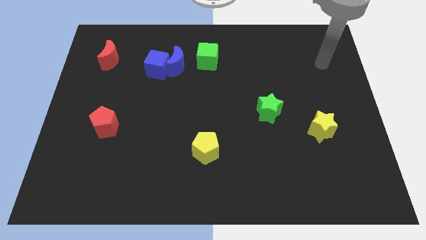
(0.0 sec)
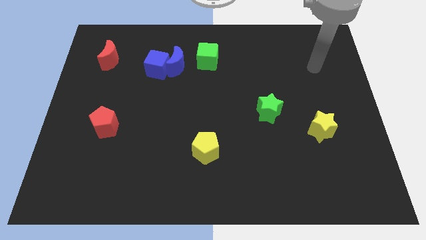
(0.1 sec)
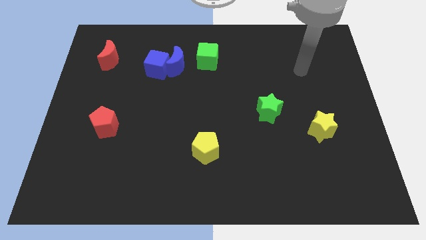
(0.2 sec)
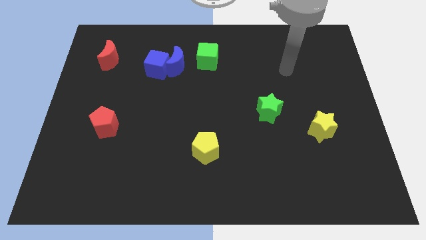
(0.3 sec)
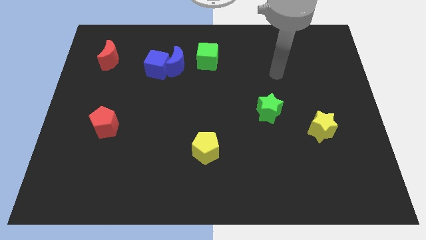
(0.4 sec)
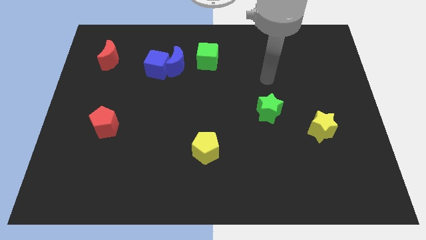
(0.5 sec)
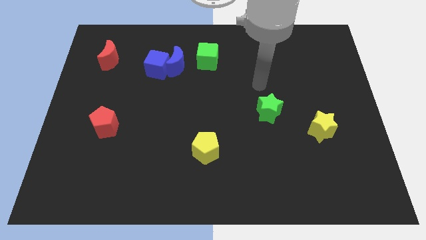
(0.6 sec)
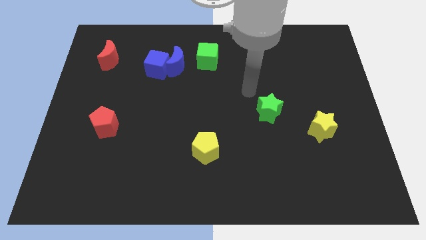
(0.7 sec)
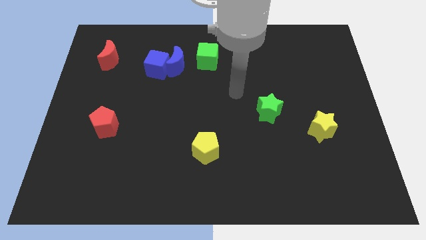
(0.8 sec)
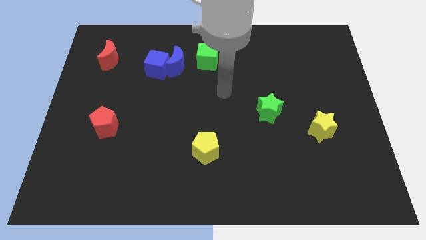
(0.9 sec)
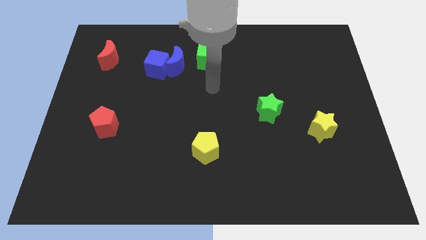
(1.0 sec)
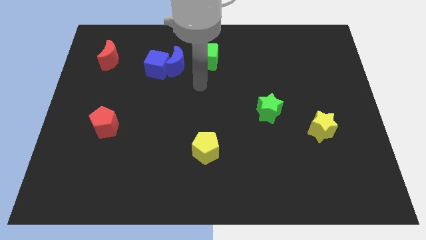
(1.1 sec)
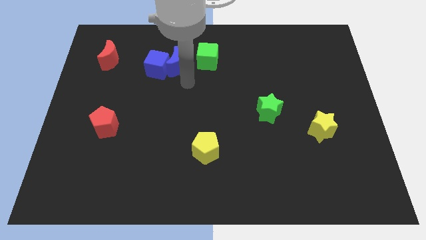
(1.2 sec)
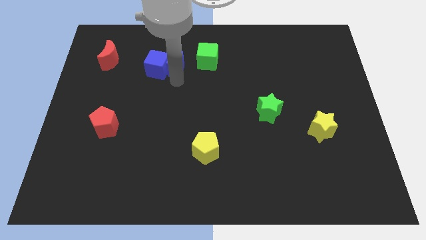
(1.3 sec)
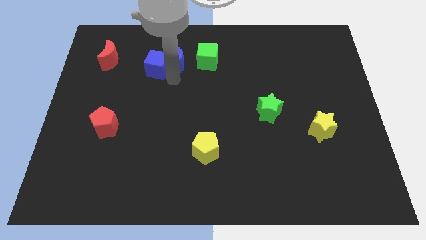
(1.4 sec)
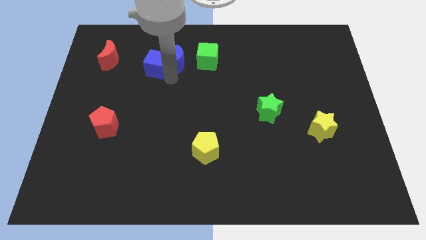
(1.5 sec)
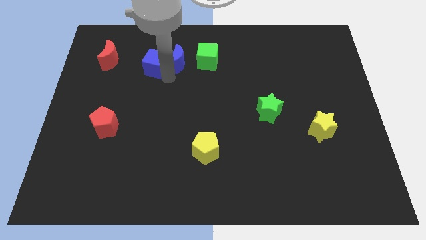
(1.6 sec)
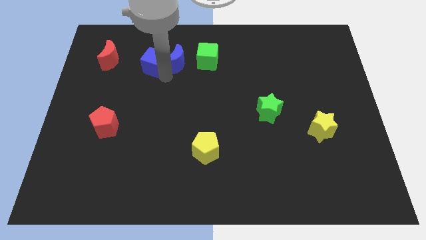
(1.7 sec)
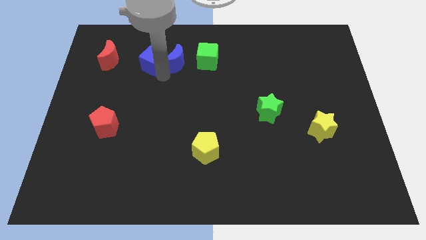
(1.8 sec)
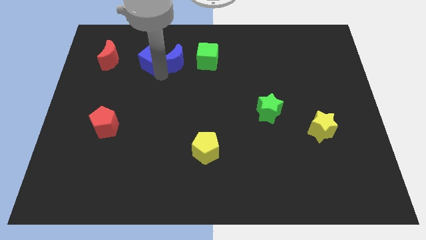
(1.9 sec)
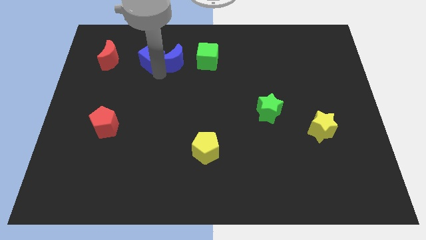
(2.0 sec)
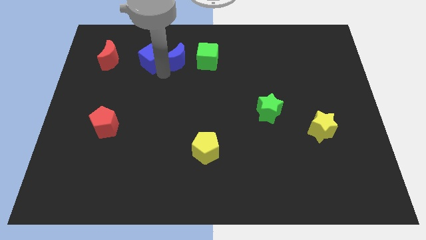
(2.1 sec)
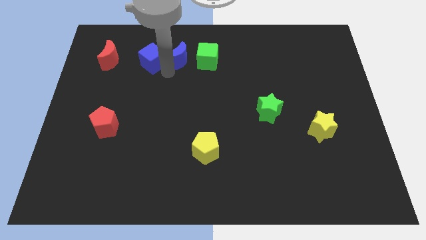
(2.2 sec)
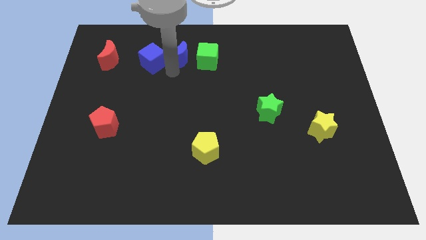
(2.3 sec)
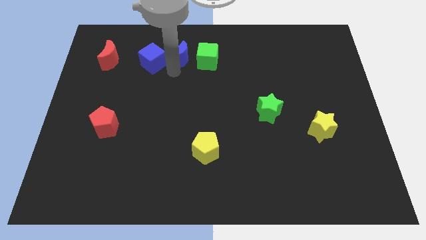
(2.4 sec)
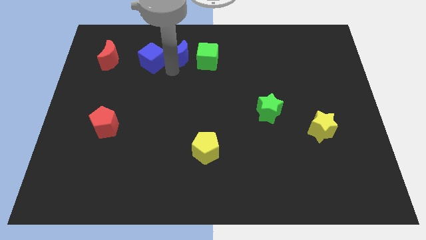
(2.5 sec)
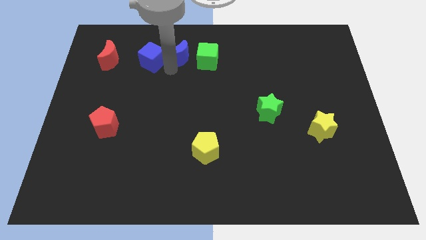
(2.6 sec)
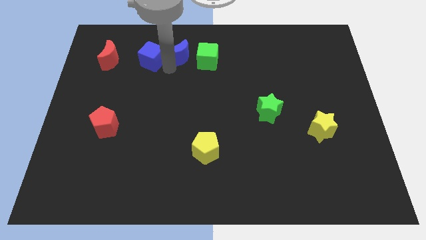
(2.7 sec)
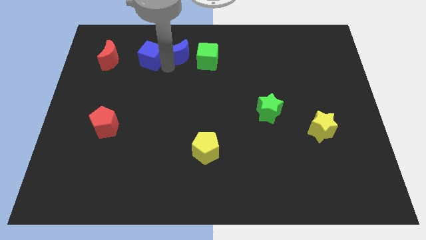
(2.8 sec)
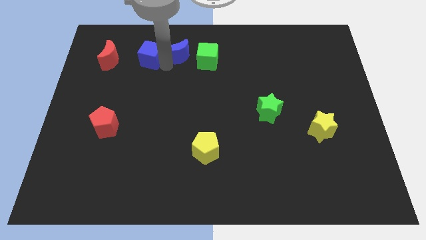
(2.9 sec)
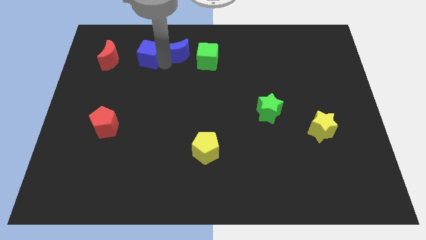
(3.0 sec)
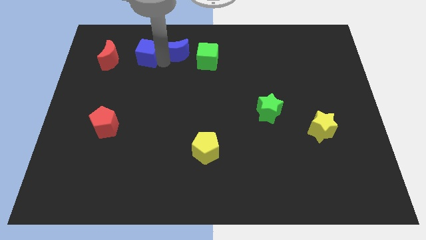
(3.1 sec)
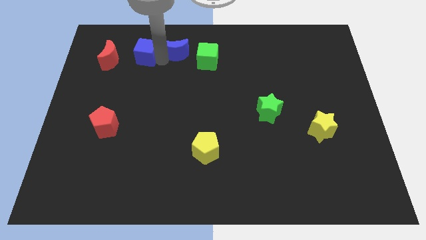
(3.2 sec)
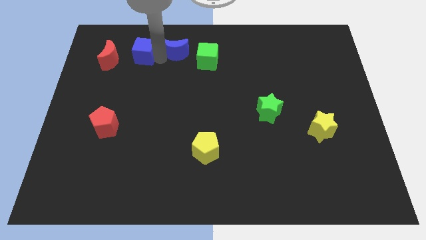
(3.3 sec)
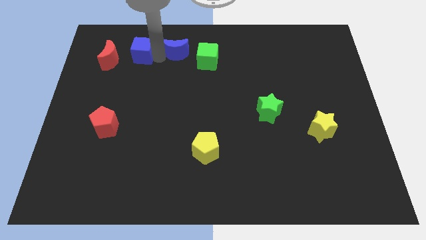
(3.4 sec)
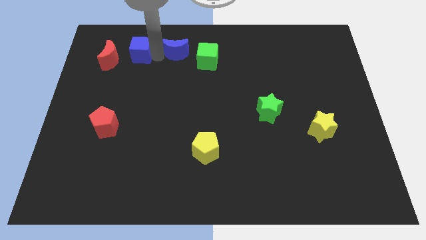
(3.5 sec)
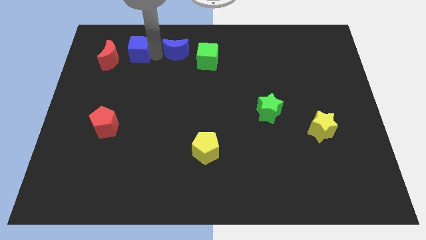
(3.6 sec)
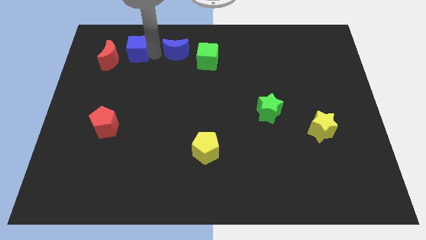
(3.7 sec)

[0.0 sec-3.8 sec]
separate the blue cube from the blue moon

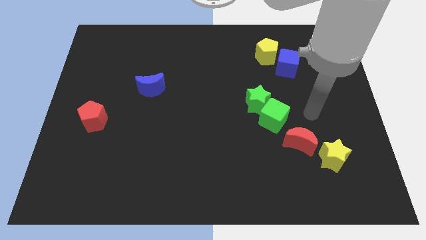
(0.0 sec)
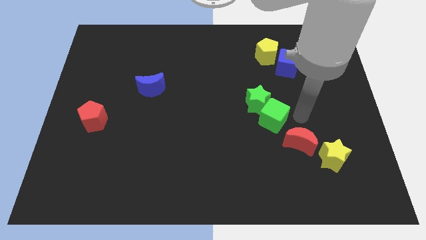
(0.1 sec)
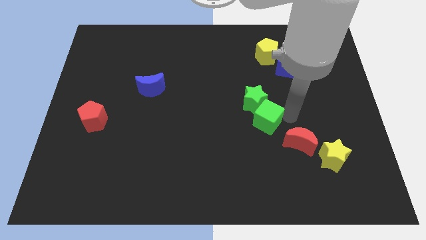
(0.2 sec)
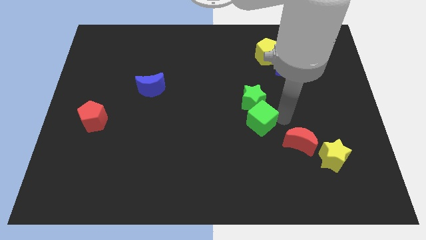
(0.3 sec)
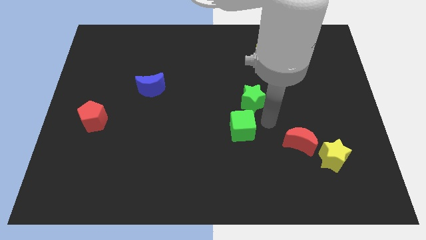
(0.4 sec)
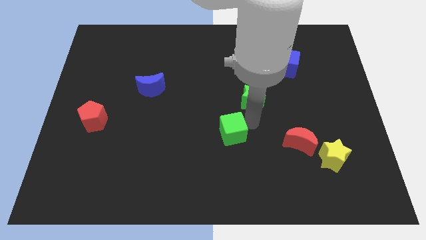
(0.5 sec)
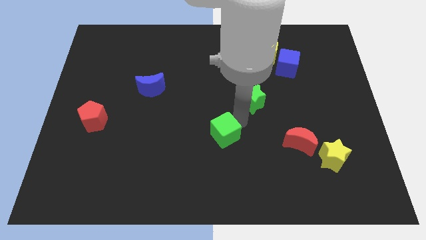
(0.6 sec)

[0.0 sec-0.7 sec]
move the green star away from the green cube

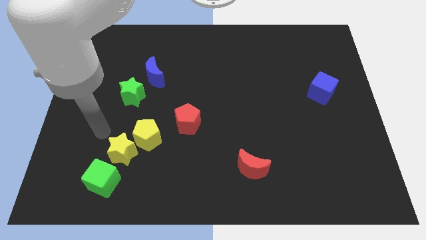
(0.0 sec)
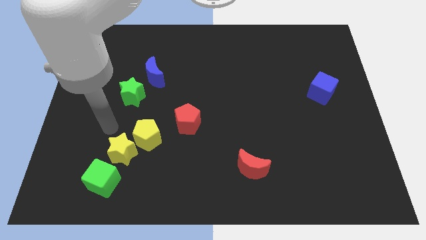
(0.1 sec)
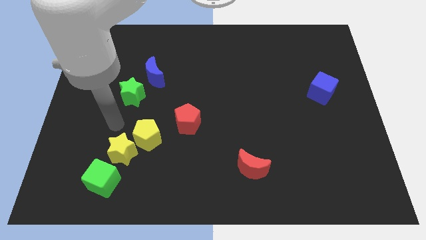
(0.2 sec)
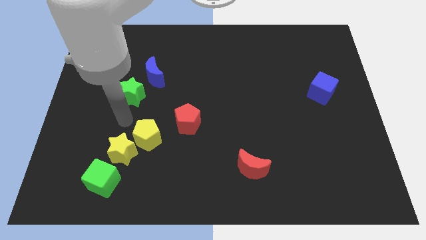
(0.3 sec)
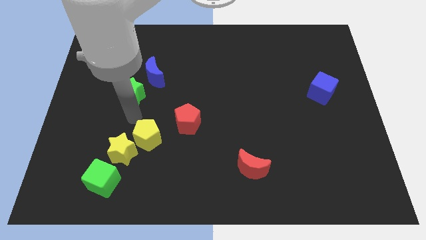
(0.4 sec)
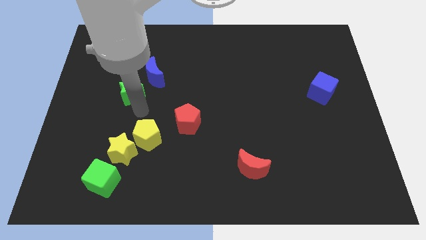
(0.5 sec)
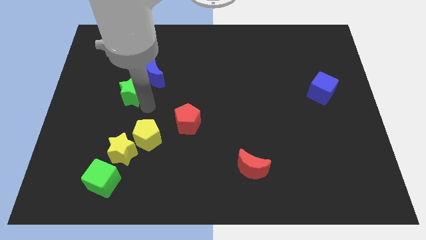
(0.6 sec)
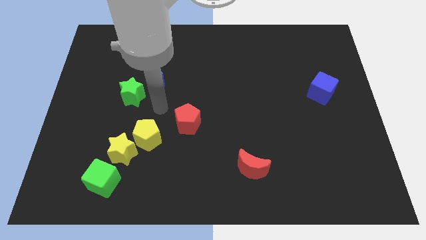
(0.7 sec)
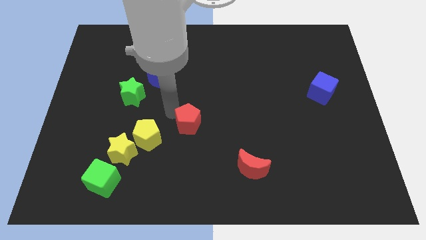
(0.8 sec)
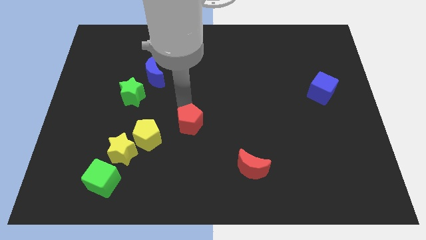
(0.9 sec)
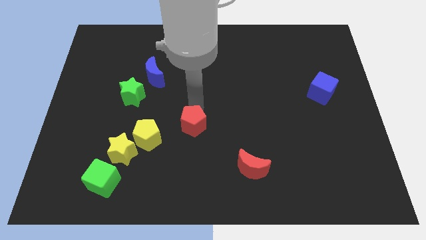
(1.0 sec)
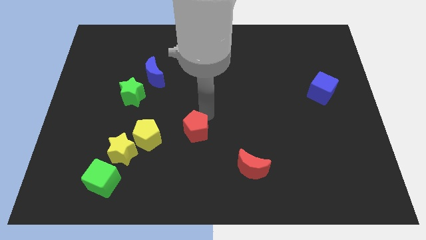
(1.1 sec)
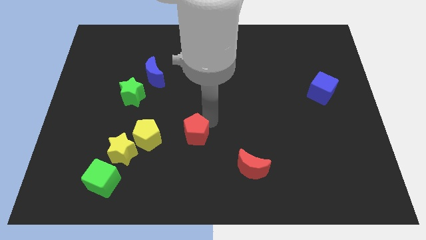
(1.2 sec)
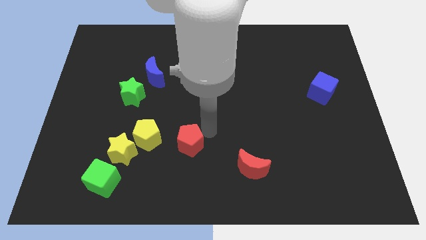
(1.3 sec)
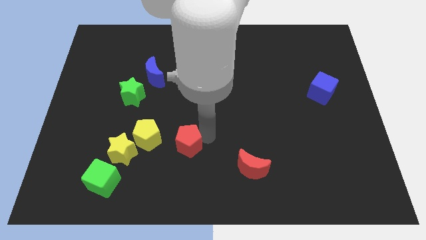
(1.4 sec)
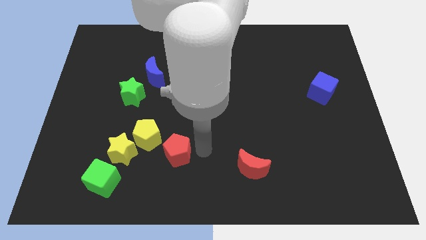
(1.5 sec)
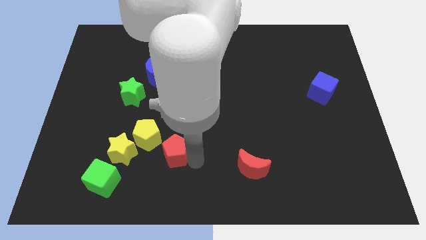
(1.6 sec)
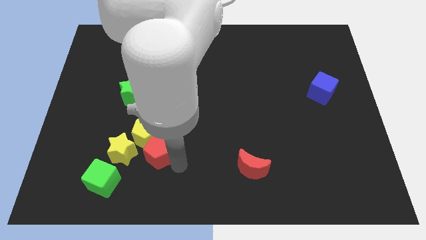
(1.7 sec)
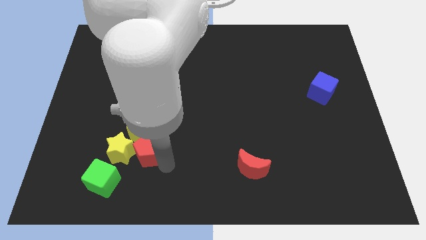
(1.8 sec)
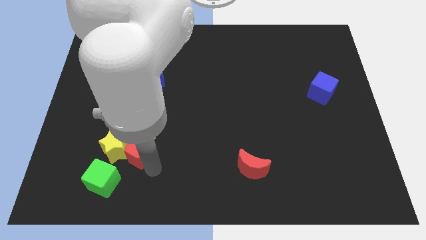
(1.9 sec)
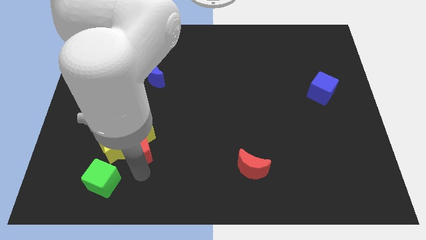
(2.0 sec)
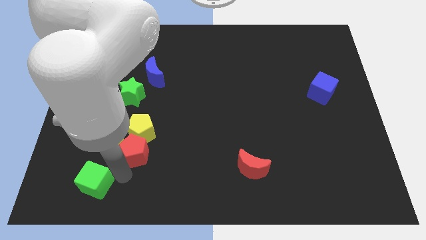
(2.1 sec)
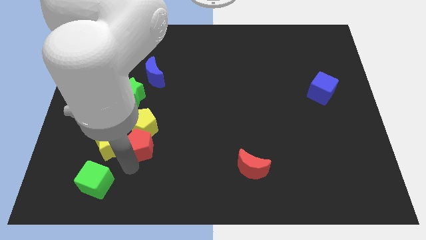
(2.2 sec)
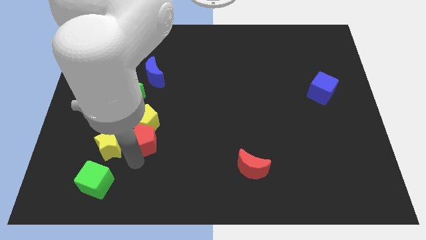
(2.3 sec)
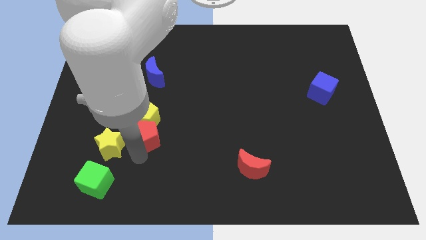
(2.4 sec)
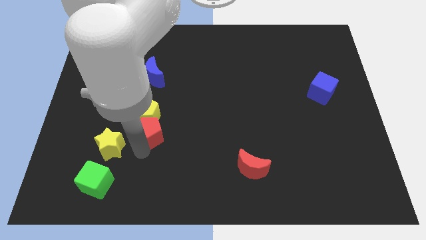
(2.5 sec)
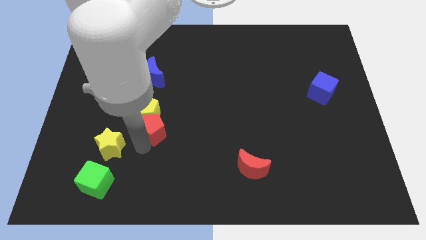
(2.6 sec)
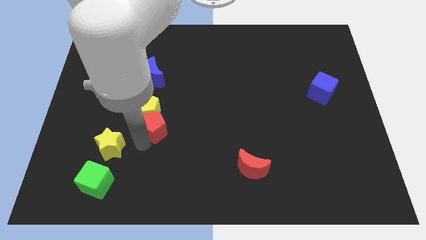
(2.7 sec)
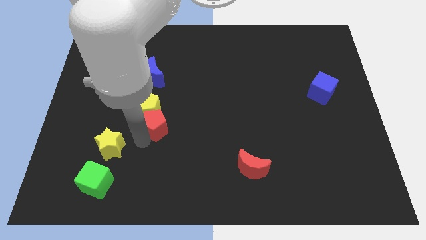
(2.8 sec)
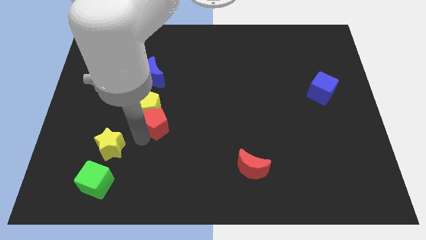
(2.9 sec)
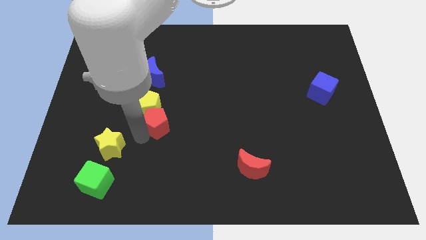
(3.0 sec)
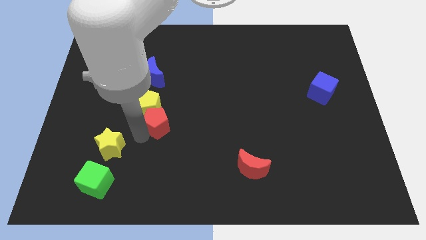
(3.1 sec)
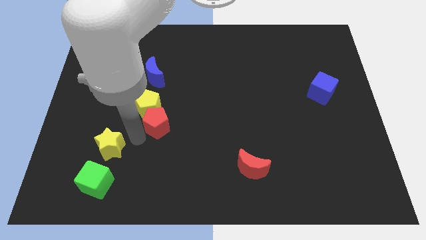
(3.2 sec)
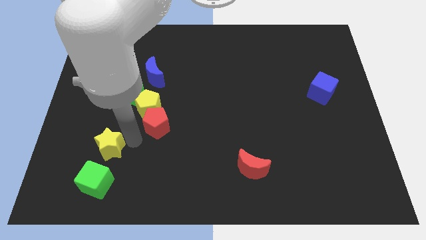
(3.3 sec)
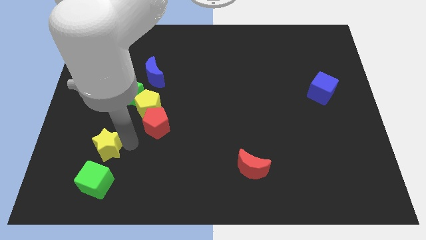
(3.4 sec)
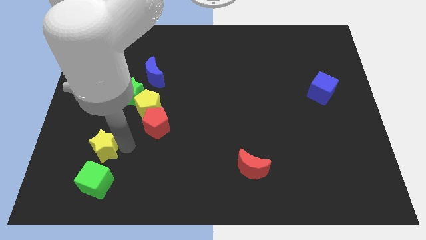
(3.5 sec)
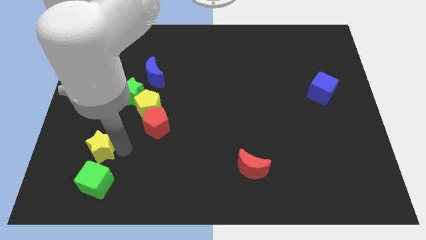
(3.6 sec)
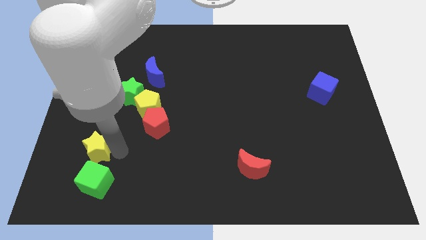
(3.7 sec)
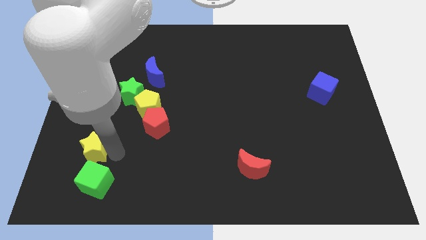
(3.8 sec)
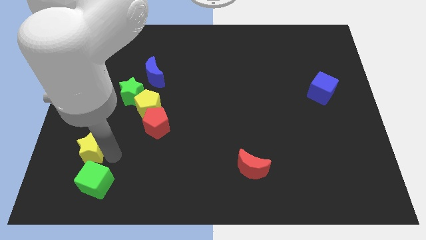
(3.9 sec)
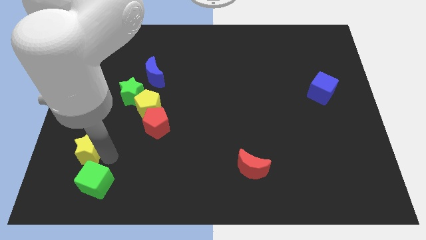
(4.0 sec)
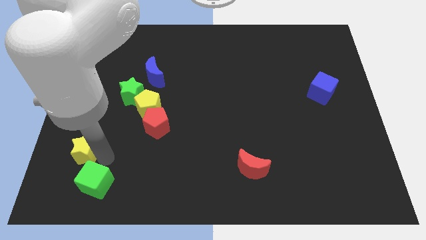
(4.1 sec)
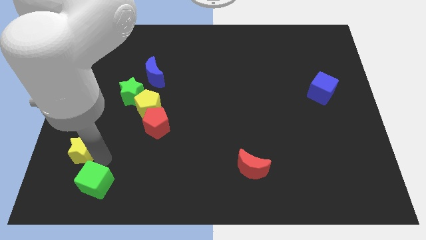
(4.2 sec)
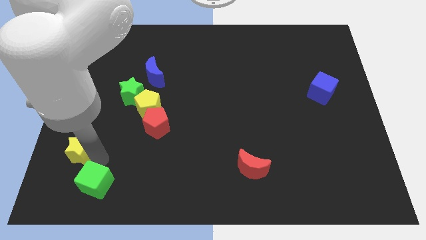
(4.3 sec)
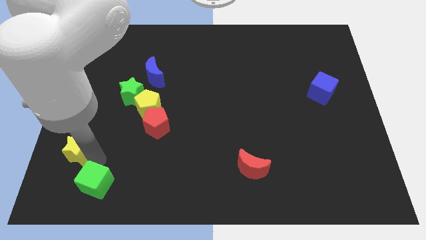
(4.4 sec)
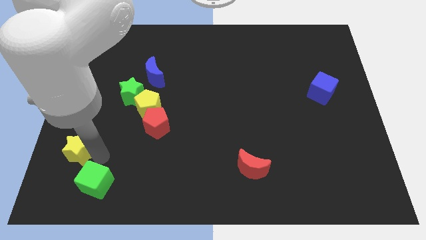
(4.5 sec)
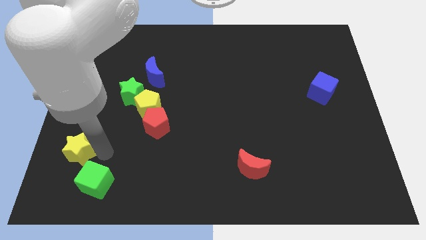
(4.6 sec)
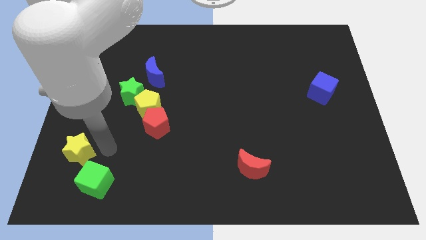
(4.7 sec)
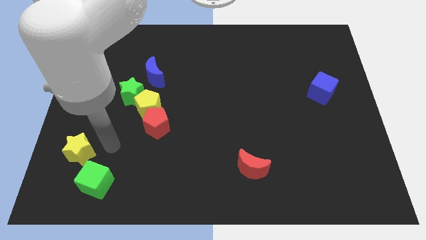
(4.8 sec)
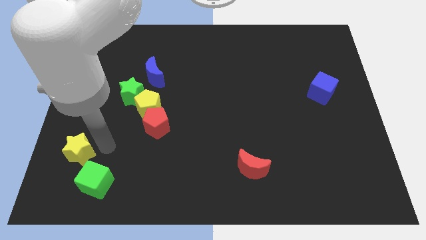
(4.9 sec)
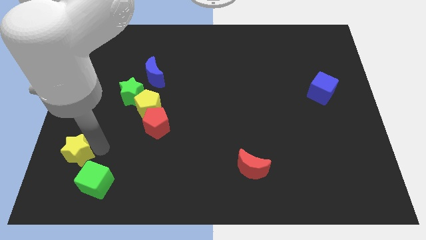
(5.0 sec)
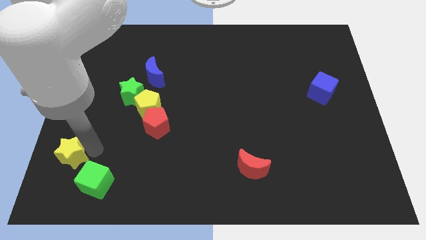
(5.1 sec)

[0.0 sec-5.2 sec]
pull the yellow star apart from the yellow pentagon and green cube
